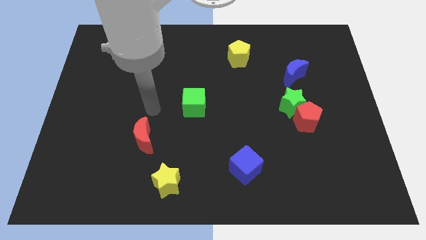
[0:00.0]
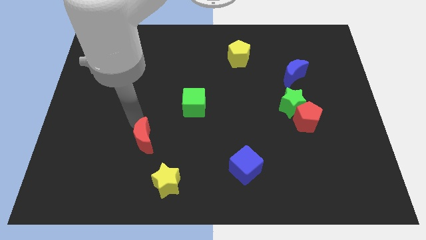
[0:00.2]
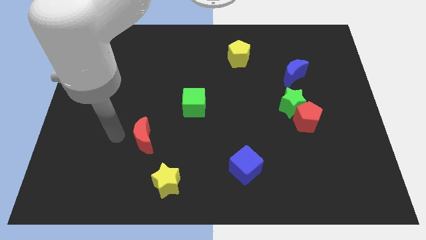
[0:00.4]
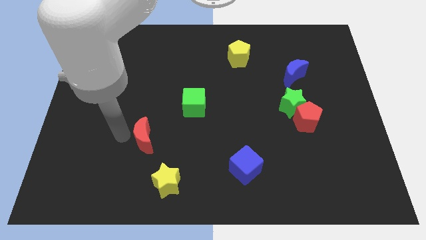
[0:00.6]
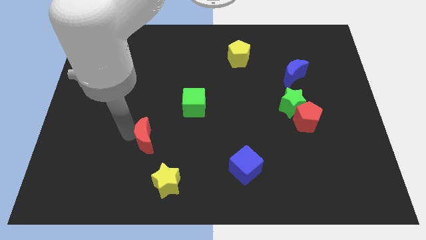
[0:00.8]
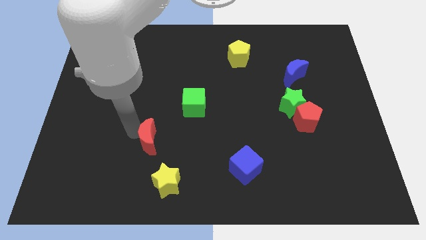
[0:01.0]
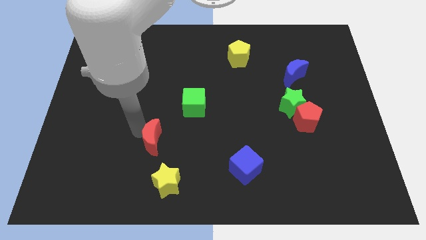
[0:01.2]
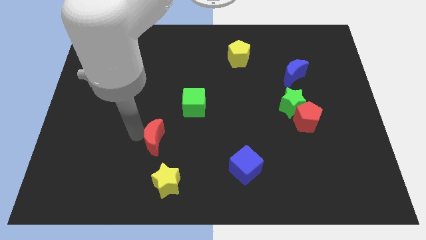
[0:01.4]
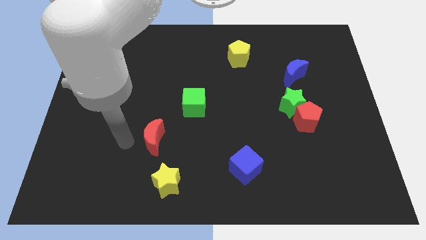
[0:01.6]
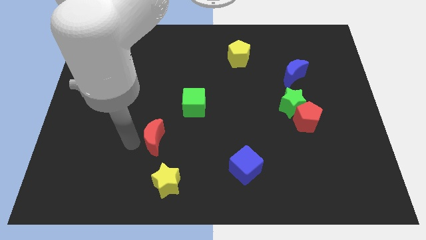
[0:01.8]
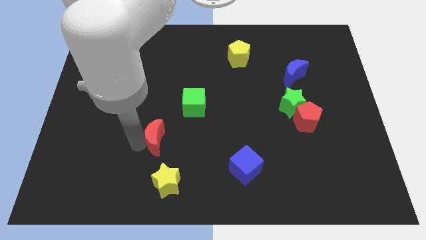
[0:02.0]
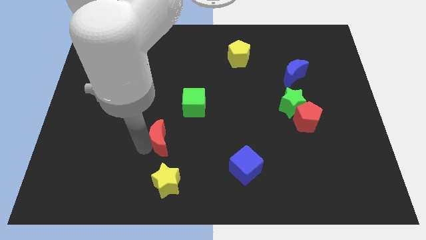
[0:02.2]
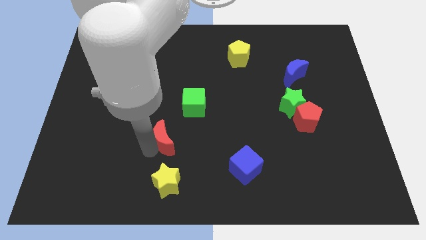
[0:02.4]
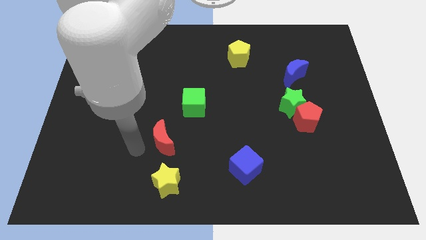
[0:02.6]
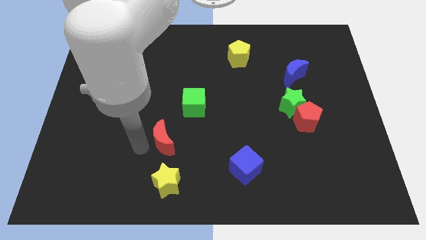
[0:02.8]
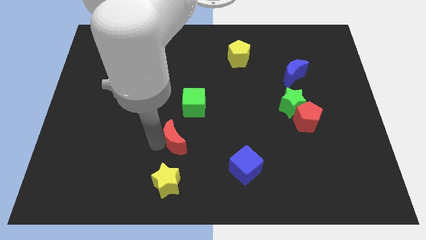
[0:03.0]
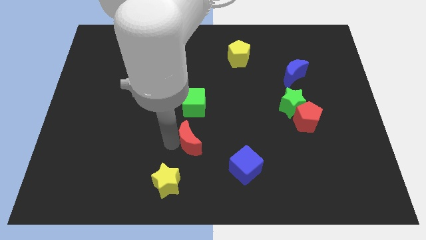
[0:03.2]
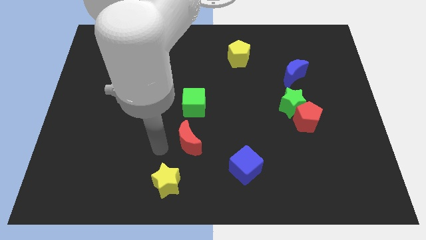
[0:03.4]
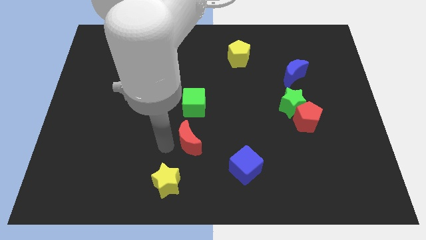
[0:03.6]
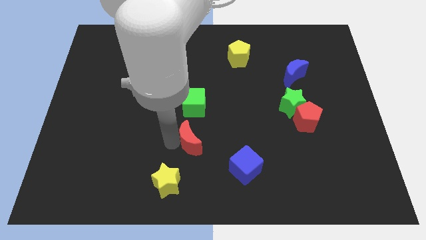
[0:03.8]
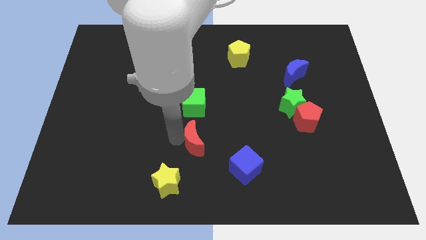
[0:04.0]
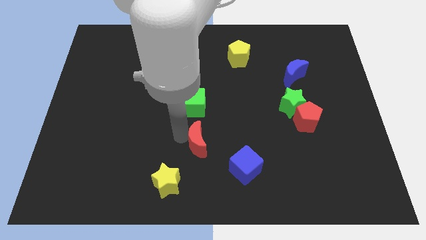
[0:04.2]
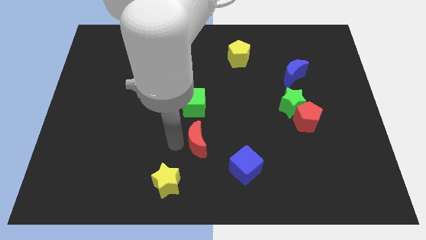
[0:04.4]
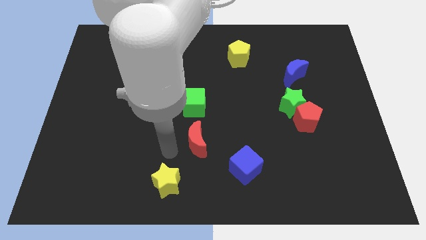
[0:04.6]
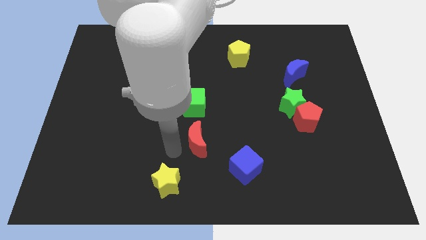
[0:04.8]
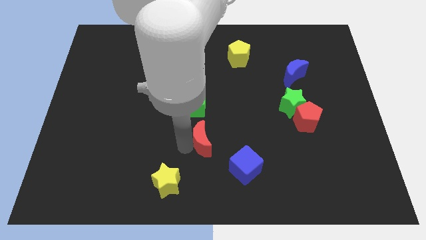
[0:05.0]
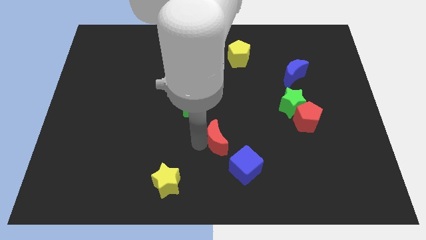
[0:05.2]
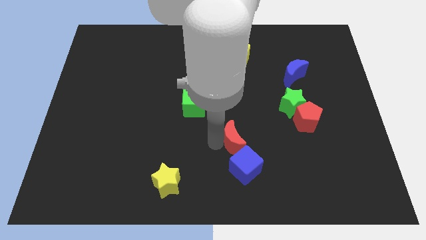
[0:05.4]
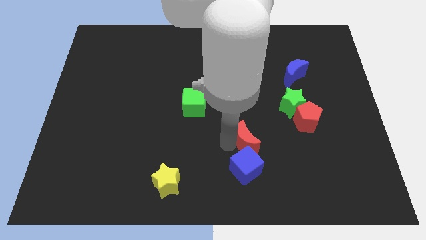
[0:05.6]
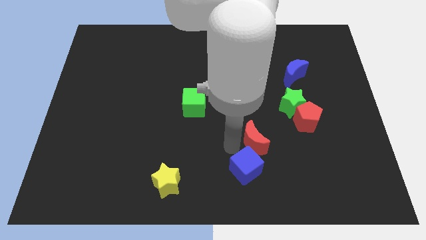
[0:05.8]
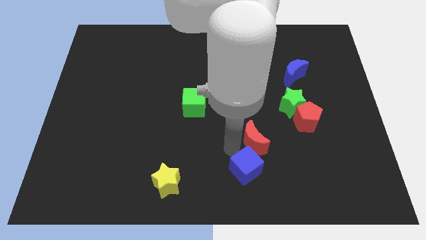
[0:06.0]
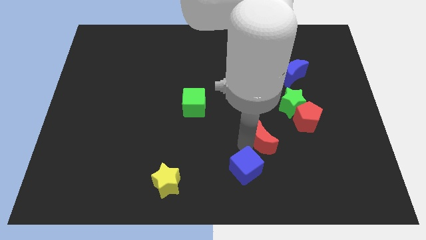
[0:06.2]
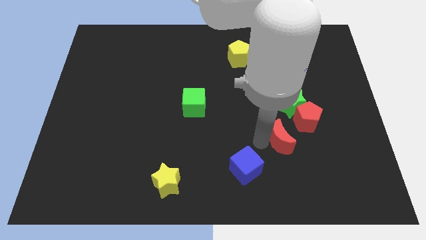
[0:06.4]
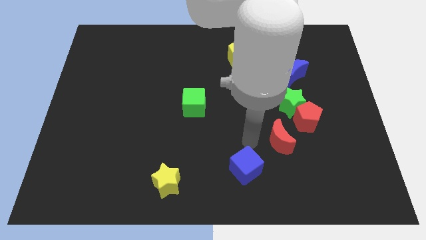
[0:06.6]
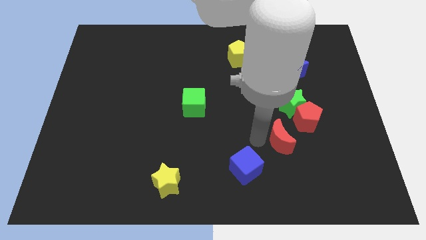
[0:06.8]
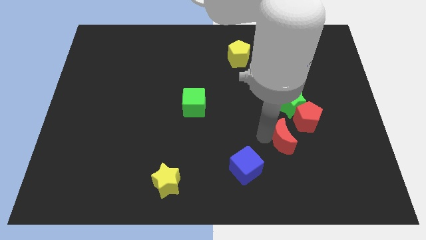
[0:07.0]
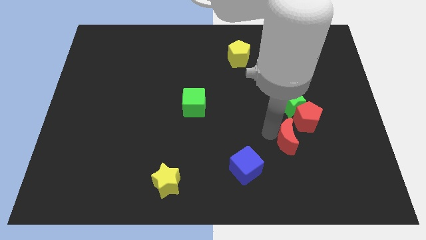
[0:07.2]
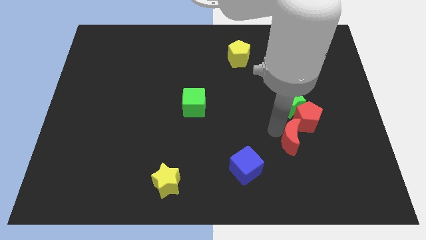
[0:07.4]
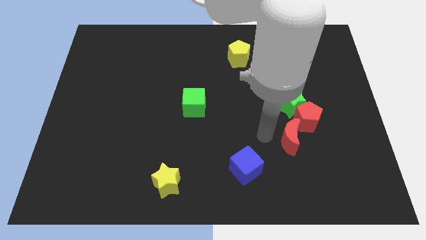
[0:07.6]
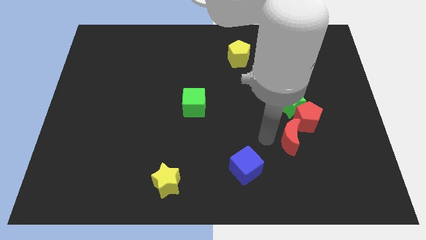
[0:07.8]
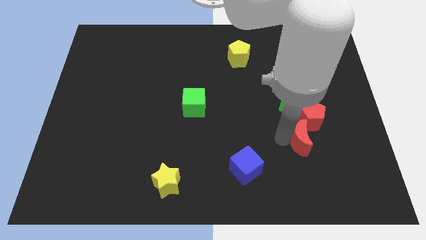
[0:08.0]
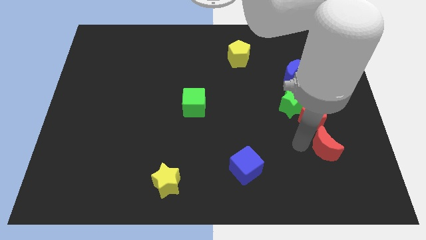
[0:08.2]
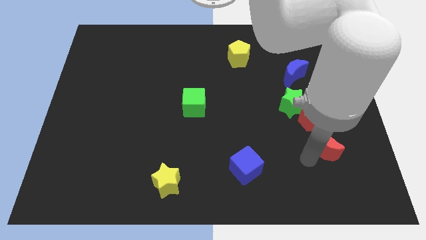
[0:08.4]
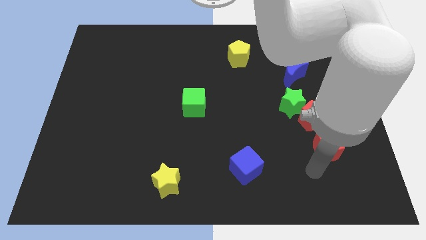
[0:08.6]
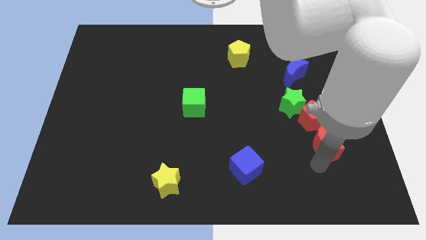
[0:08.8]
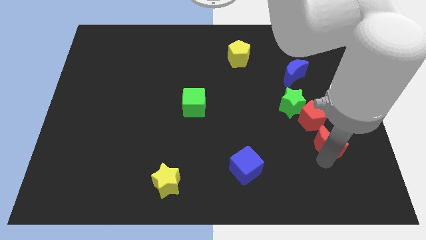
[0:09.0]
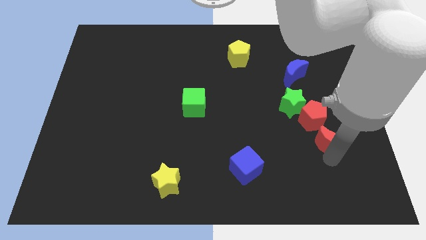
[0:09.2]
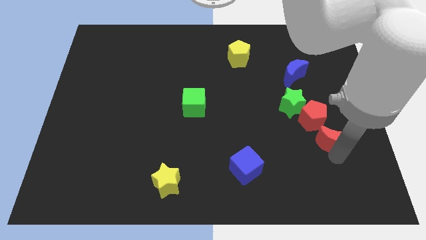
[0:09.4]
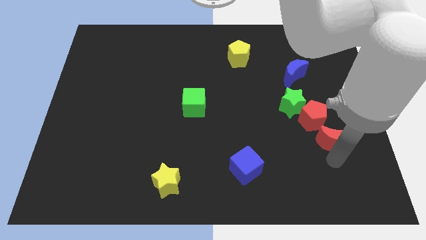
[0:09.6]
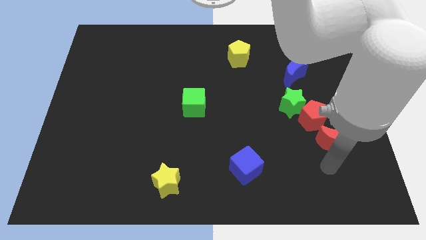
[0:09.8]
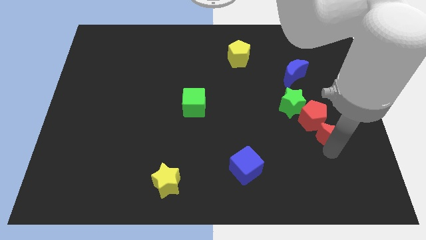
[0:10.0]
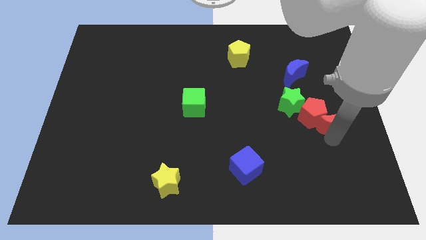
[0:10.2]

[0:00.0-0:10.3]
put the red moon to the right side

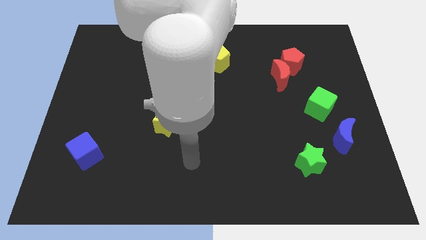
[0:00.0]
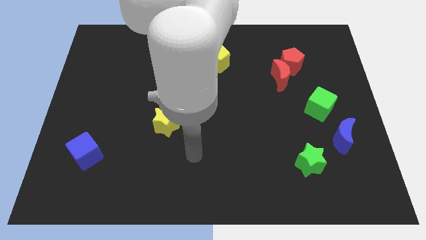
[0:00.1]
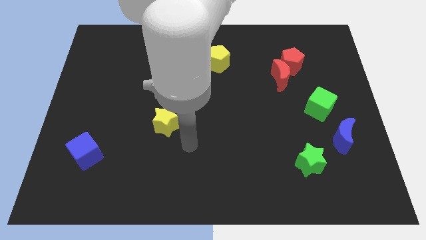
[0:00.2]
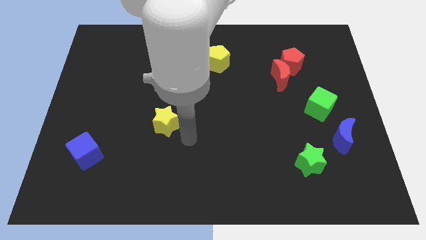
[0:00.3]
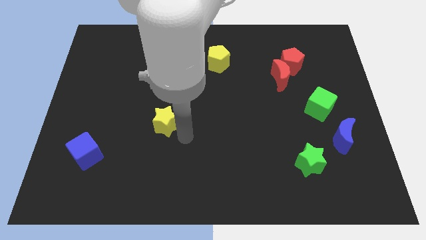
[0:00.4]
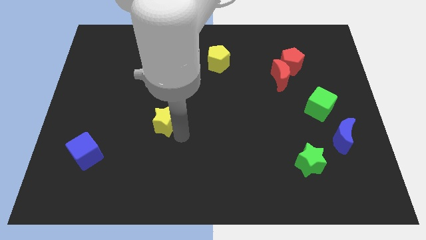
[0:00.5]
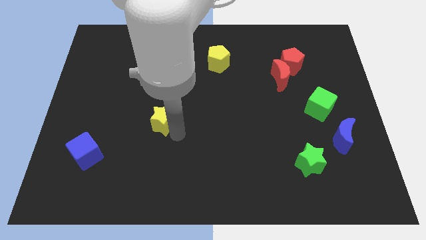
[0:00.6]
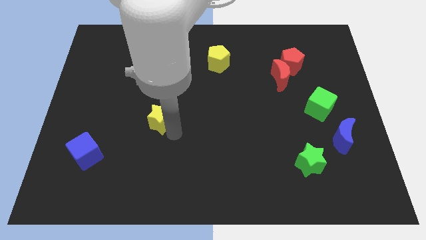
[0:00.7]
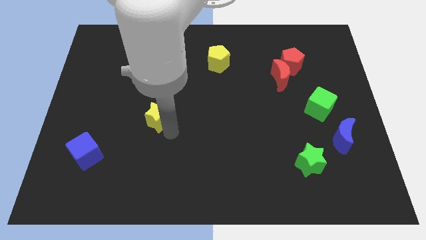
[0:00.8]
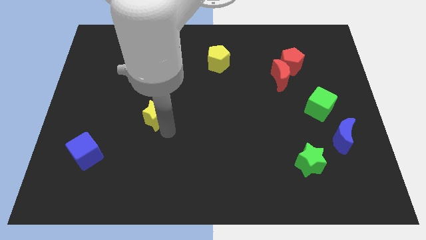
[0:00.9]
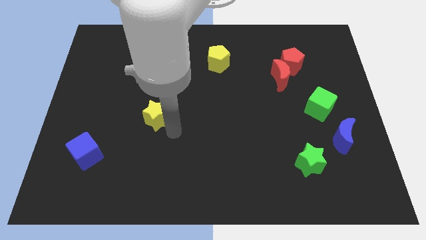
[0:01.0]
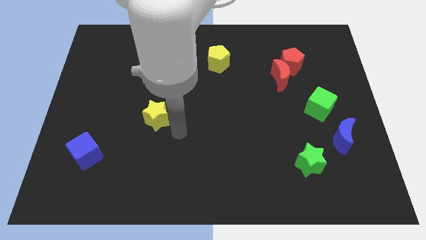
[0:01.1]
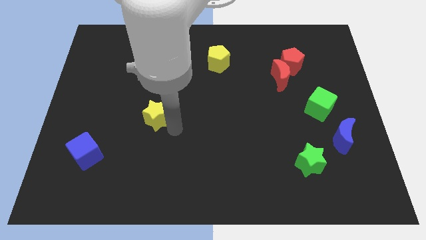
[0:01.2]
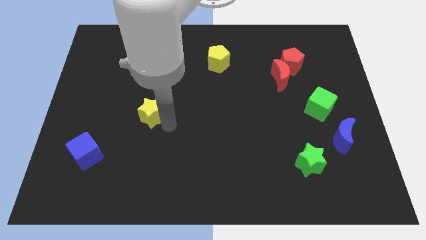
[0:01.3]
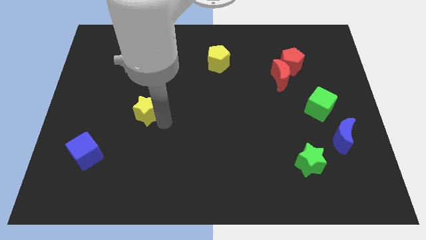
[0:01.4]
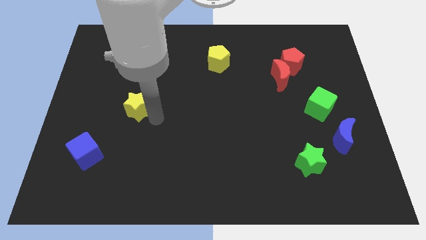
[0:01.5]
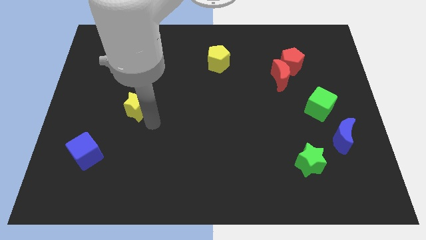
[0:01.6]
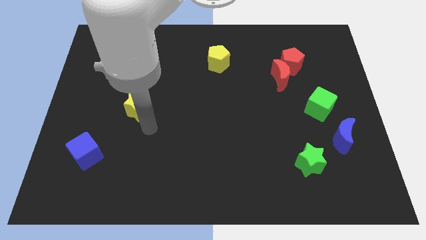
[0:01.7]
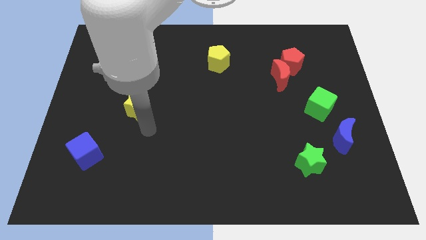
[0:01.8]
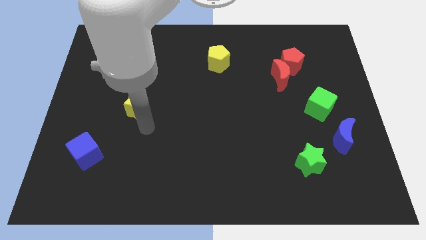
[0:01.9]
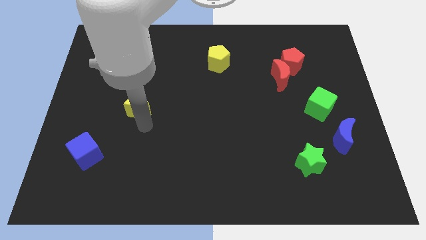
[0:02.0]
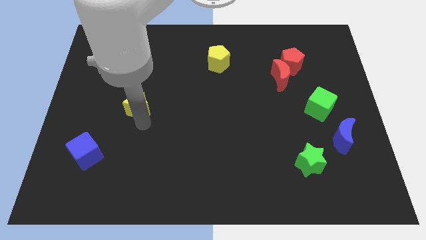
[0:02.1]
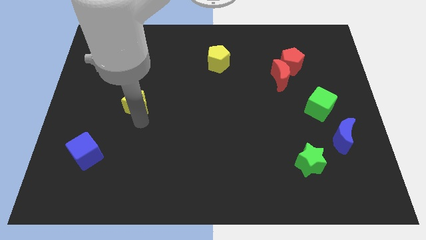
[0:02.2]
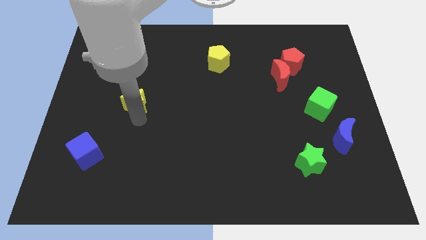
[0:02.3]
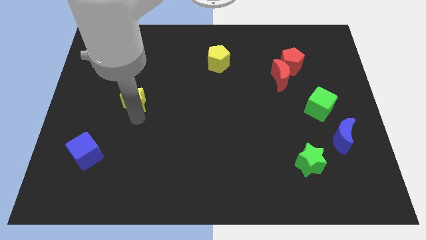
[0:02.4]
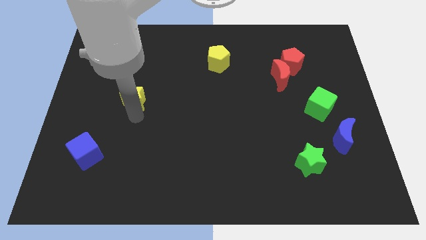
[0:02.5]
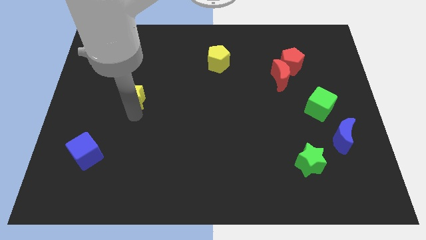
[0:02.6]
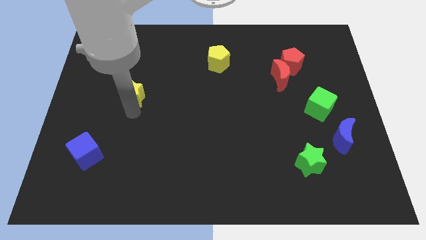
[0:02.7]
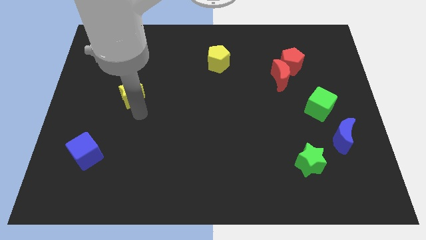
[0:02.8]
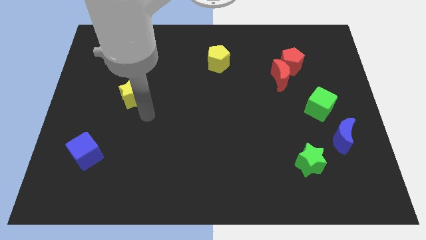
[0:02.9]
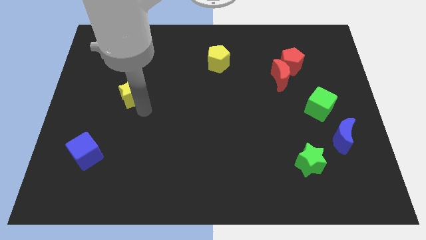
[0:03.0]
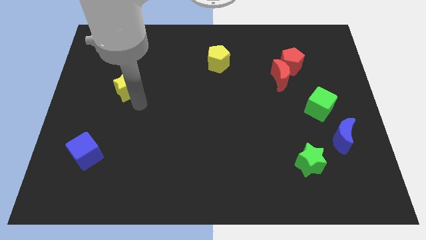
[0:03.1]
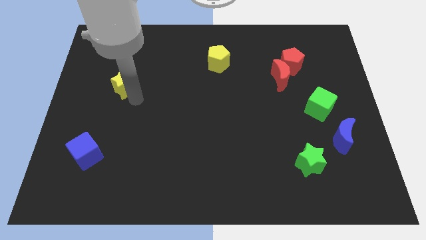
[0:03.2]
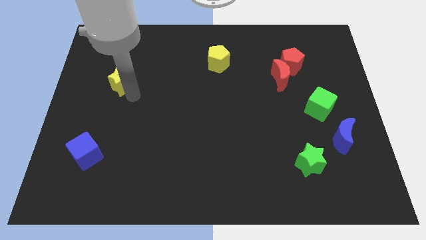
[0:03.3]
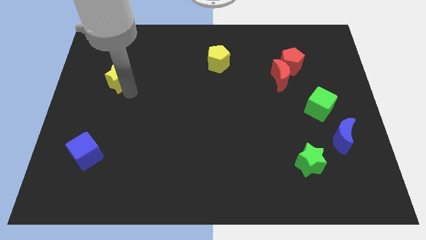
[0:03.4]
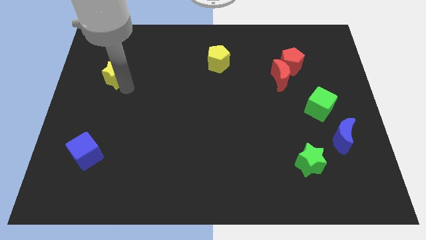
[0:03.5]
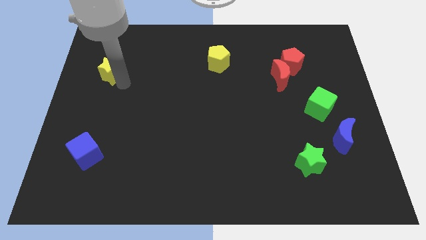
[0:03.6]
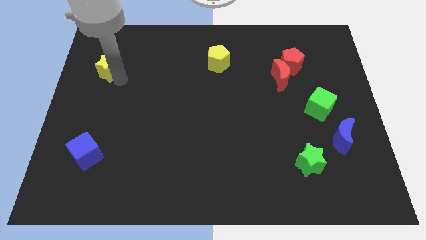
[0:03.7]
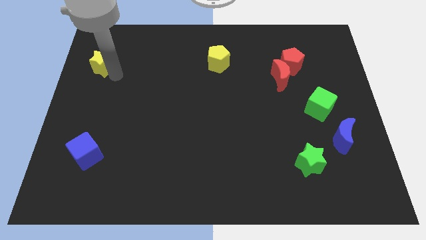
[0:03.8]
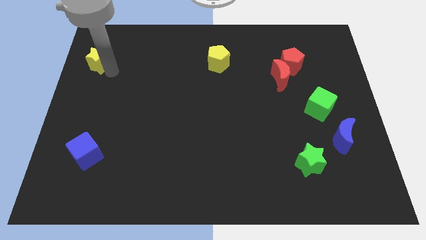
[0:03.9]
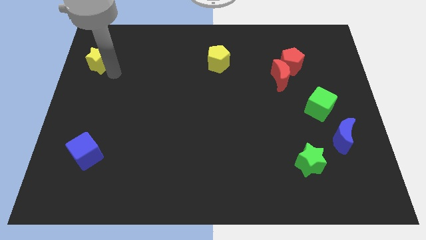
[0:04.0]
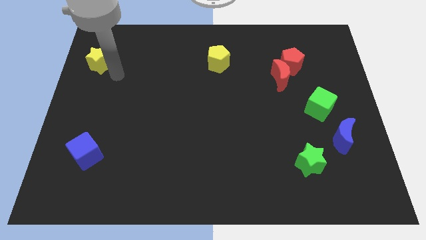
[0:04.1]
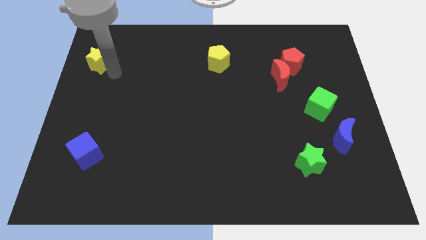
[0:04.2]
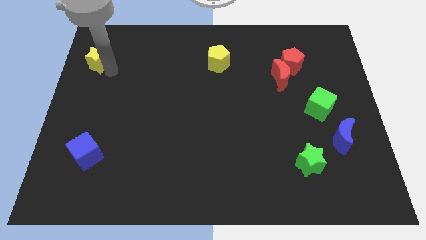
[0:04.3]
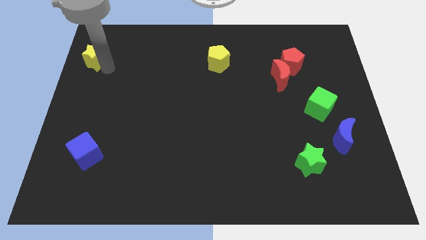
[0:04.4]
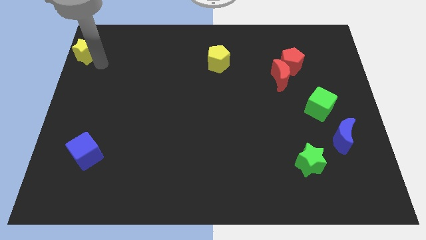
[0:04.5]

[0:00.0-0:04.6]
slide the yellow star to the upper left corner
